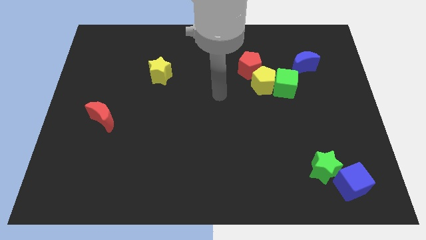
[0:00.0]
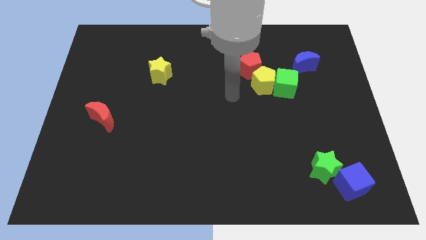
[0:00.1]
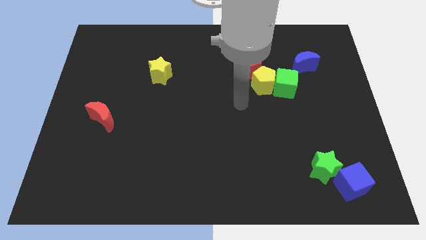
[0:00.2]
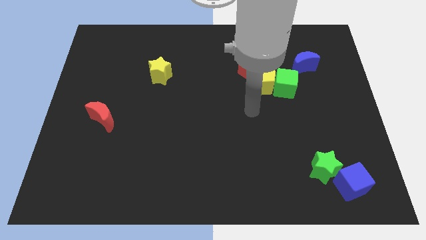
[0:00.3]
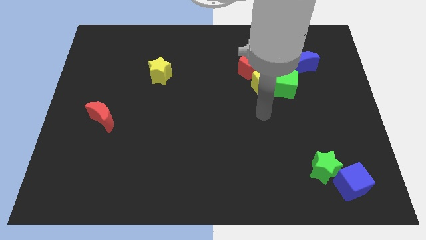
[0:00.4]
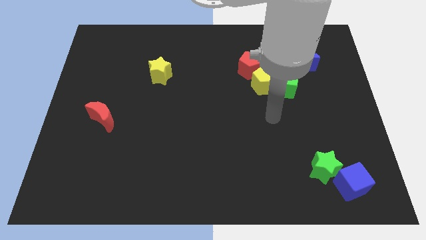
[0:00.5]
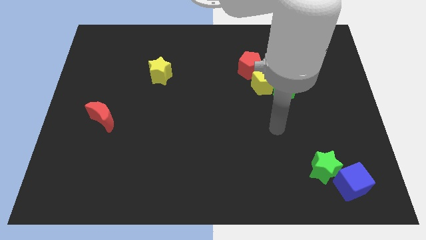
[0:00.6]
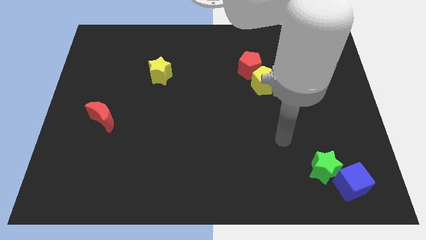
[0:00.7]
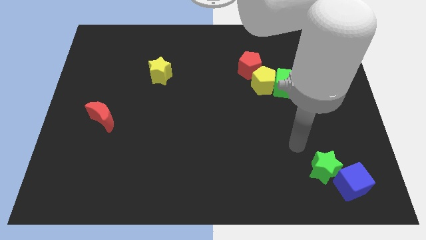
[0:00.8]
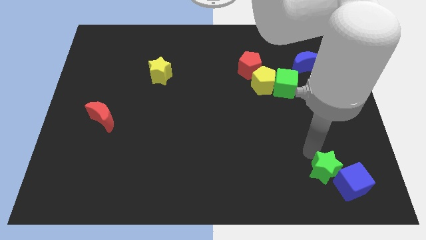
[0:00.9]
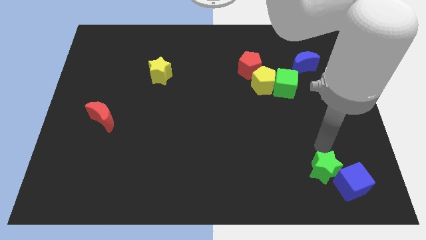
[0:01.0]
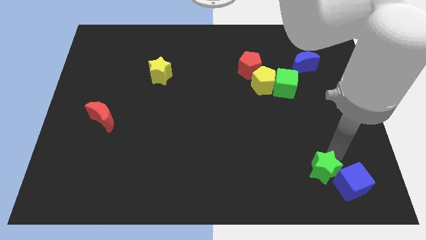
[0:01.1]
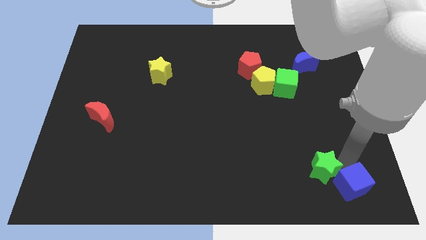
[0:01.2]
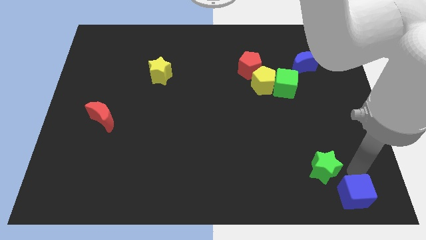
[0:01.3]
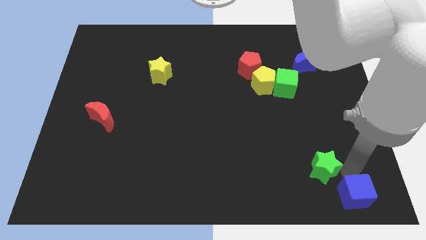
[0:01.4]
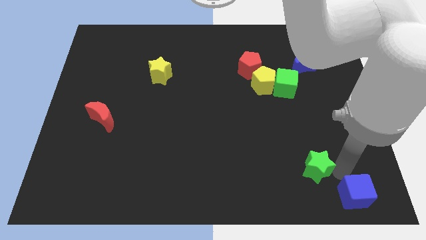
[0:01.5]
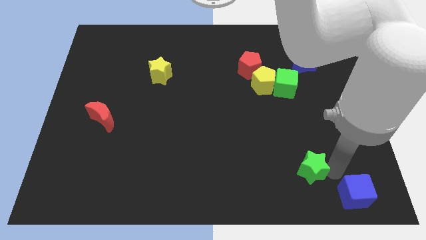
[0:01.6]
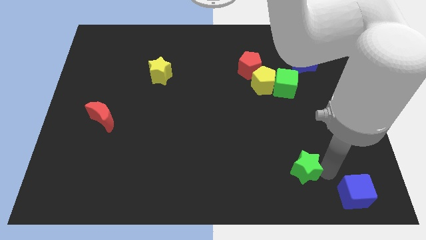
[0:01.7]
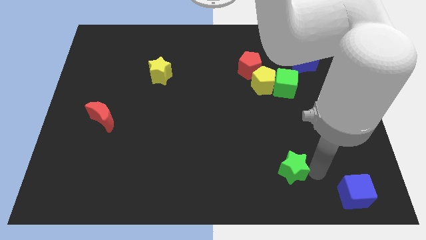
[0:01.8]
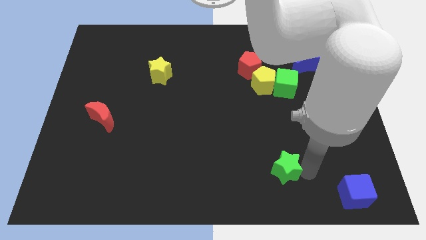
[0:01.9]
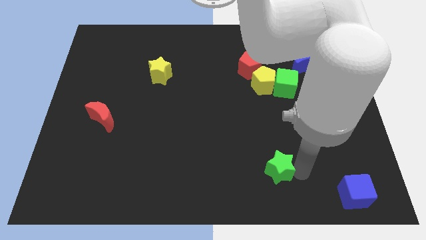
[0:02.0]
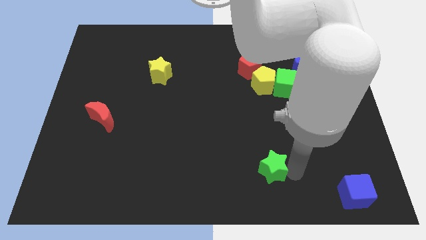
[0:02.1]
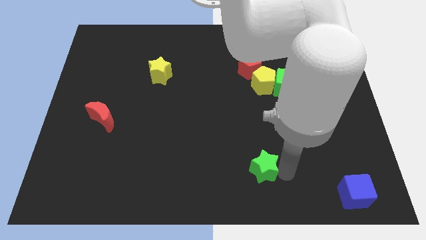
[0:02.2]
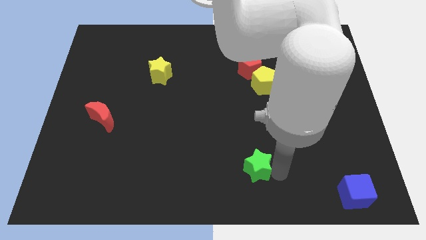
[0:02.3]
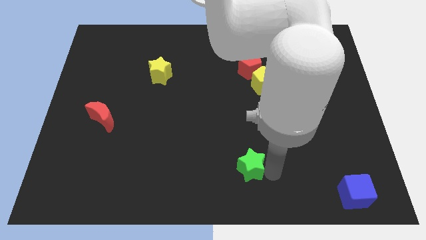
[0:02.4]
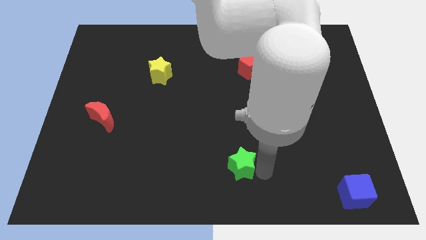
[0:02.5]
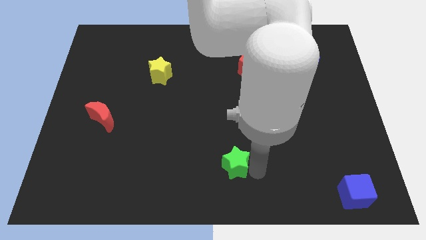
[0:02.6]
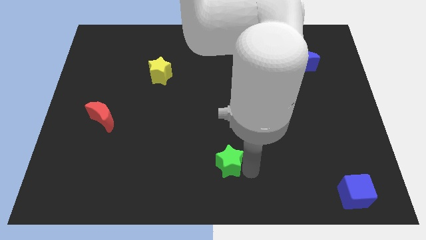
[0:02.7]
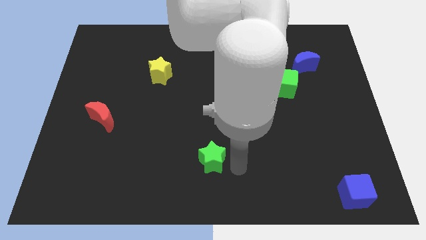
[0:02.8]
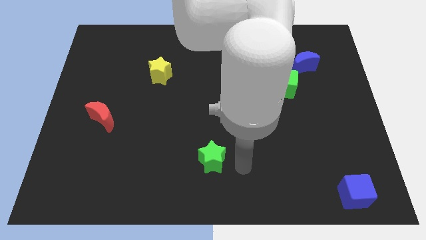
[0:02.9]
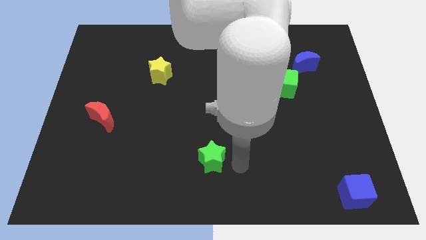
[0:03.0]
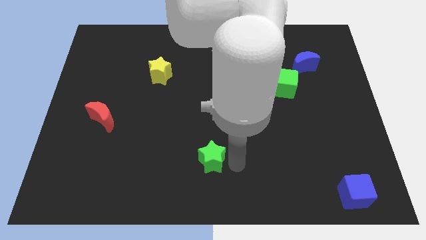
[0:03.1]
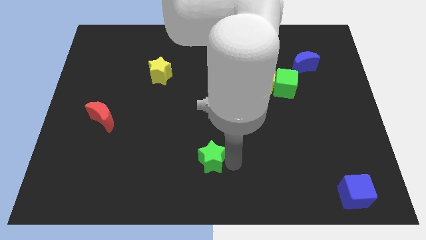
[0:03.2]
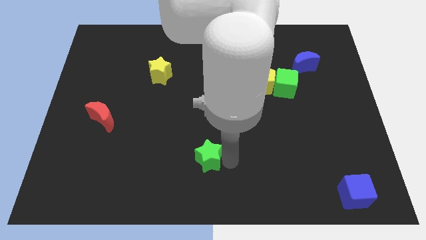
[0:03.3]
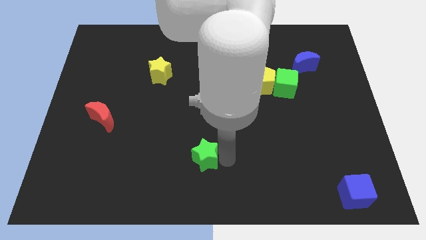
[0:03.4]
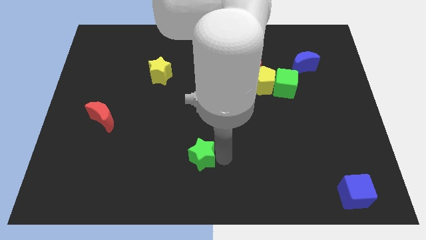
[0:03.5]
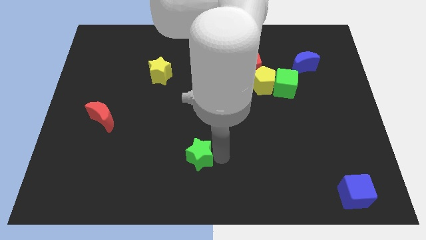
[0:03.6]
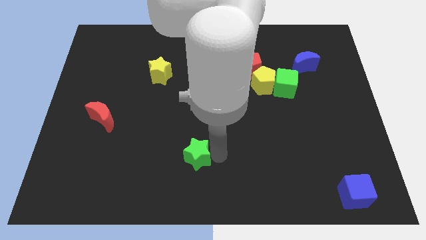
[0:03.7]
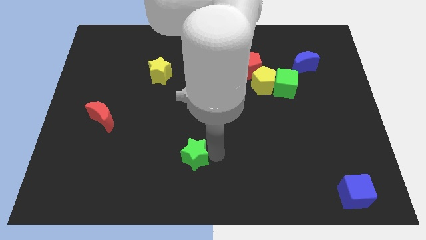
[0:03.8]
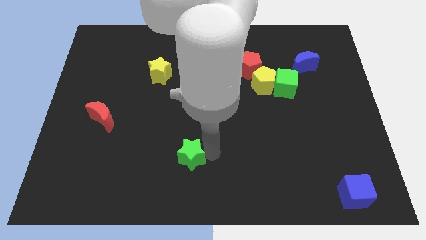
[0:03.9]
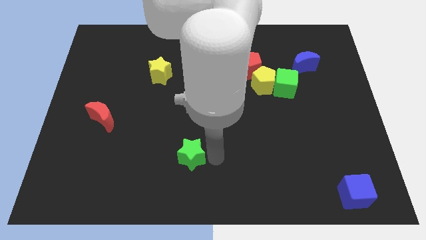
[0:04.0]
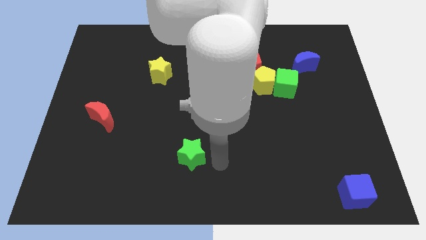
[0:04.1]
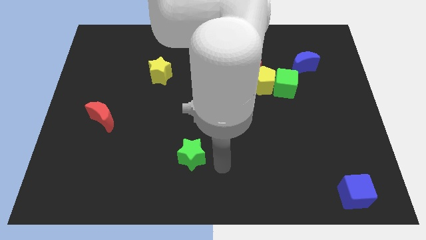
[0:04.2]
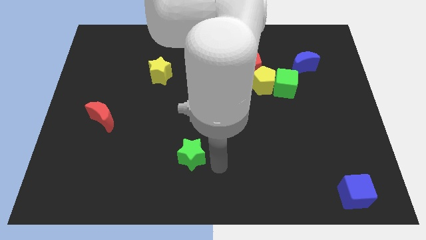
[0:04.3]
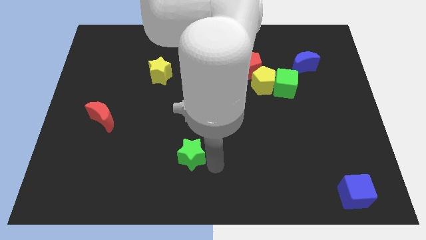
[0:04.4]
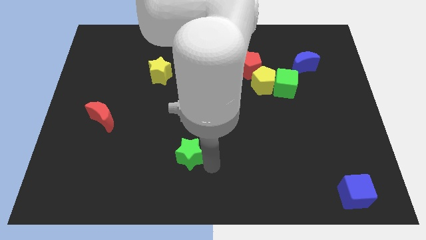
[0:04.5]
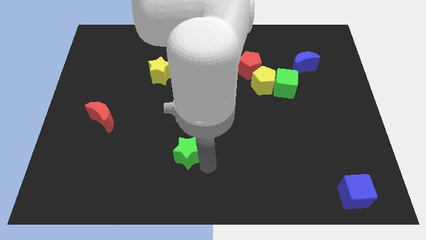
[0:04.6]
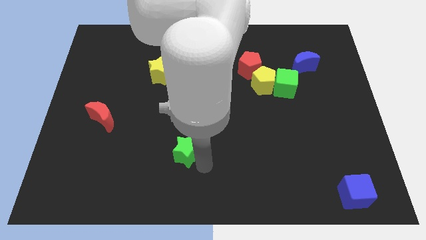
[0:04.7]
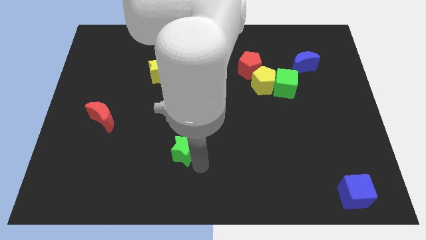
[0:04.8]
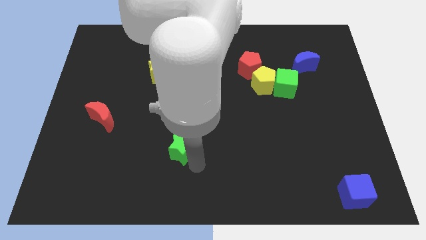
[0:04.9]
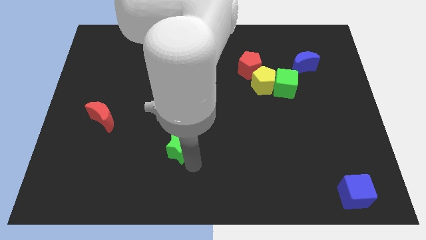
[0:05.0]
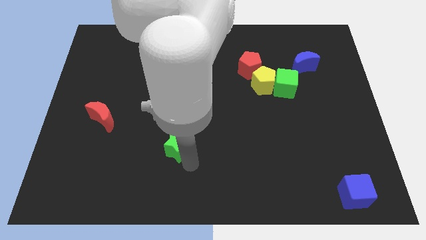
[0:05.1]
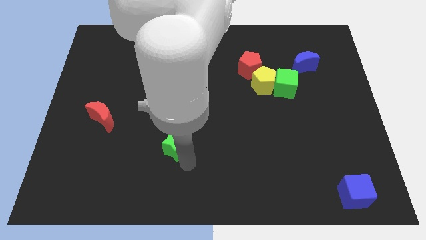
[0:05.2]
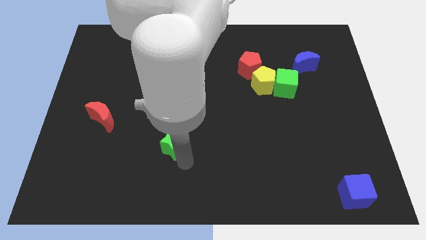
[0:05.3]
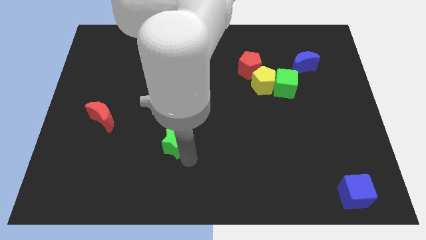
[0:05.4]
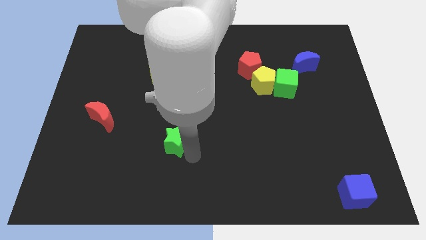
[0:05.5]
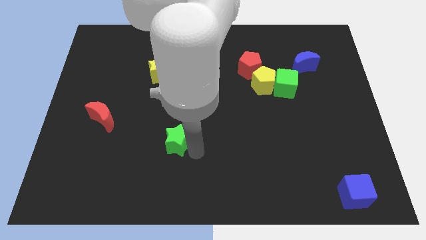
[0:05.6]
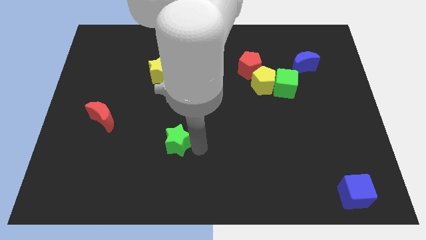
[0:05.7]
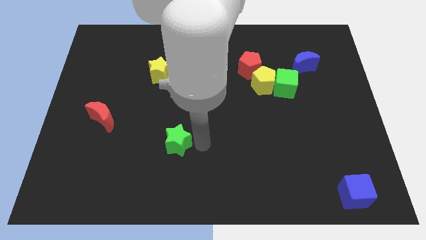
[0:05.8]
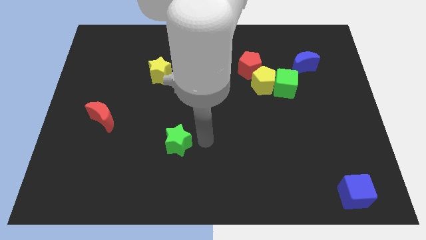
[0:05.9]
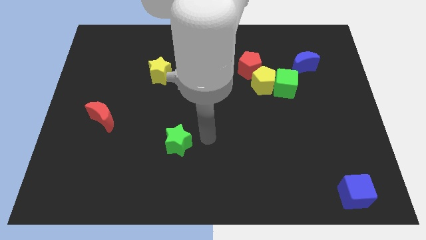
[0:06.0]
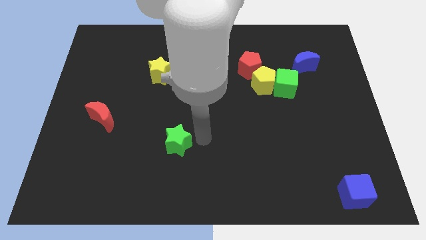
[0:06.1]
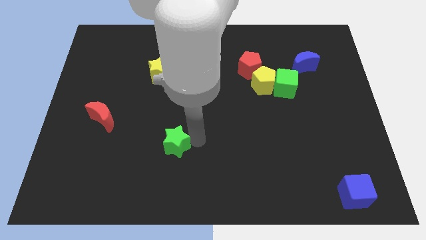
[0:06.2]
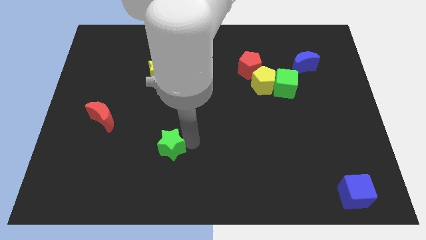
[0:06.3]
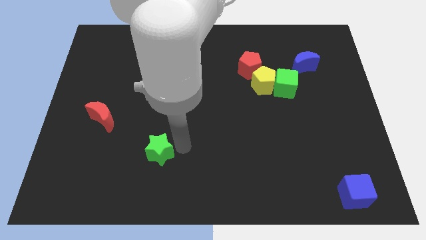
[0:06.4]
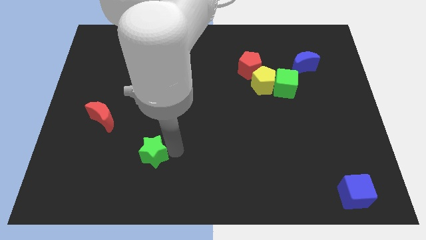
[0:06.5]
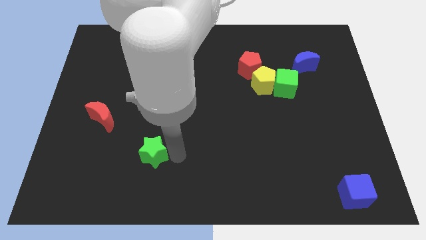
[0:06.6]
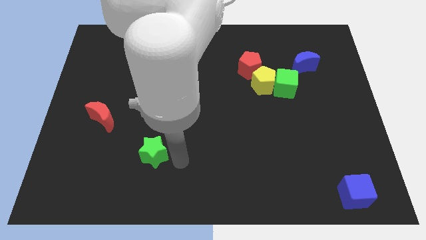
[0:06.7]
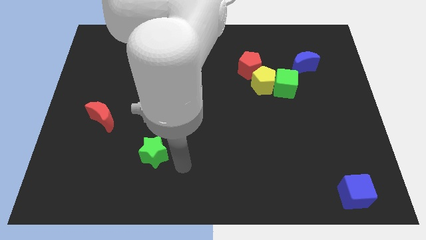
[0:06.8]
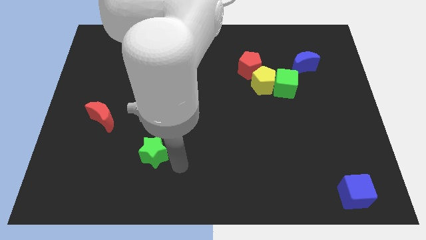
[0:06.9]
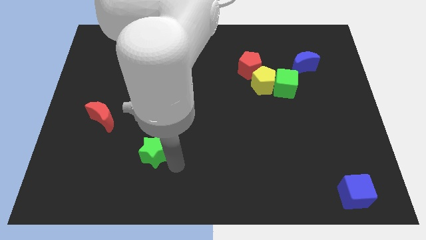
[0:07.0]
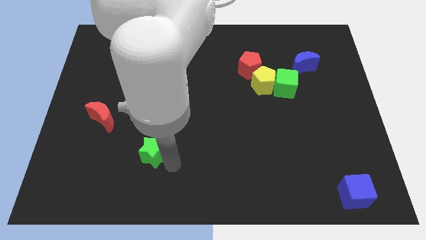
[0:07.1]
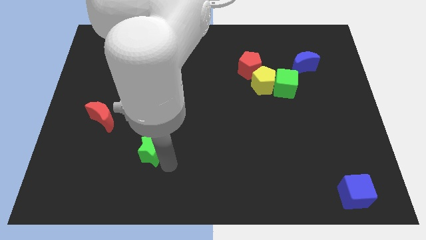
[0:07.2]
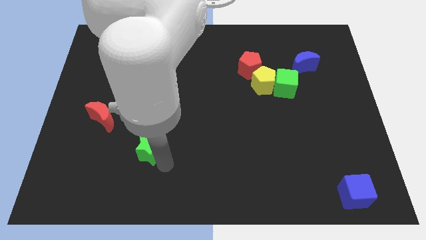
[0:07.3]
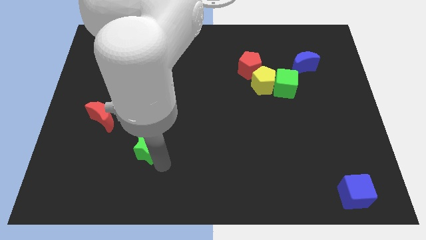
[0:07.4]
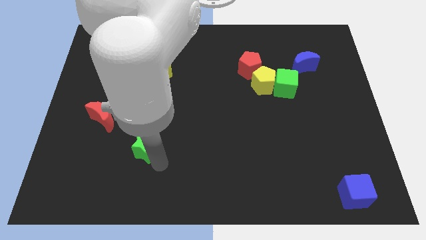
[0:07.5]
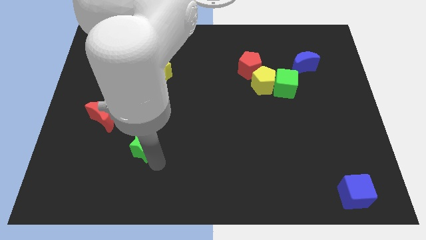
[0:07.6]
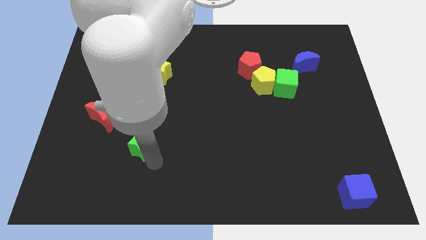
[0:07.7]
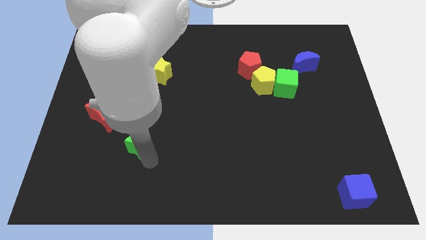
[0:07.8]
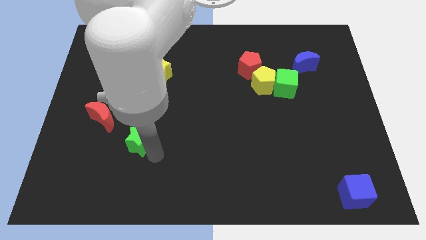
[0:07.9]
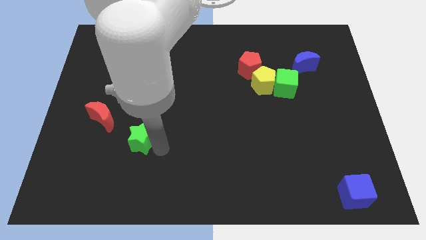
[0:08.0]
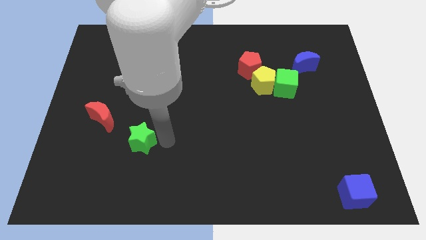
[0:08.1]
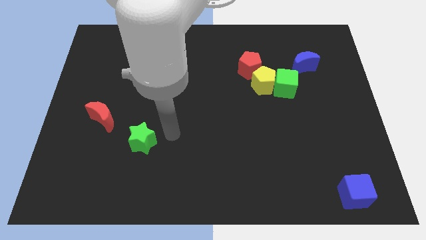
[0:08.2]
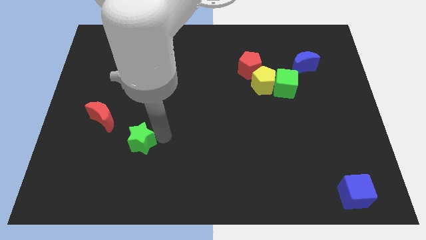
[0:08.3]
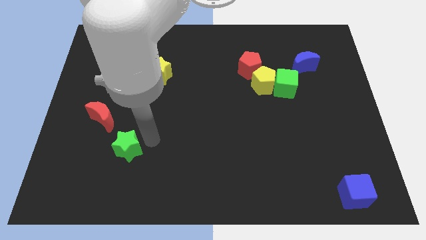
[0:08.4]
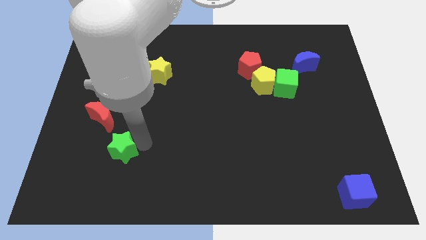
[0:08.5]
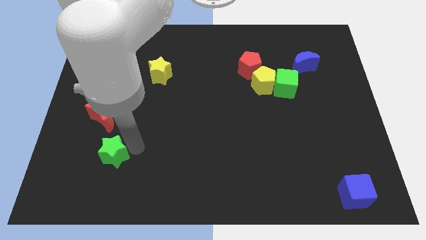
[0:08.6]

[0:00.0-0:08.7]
put the green star to the bottom side of the red moon
